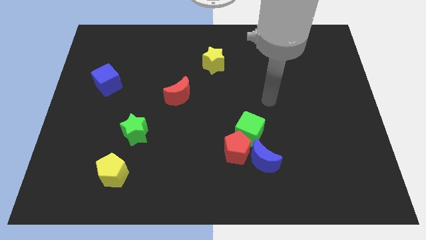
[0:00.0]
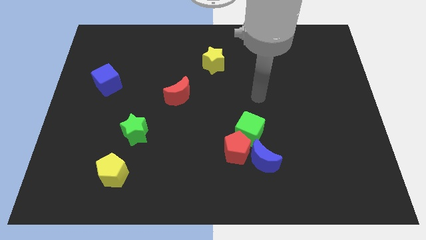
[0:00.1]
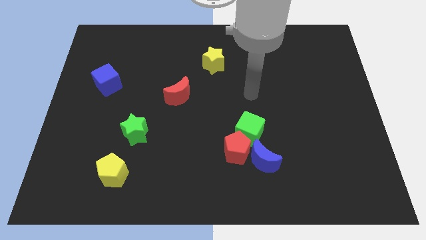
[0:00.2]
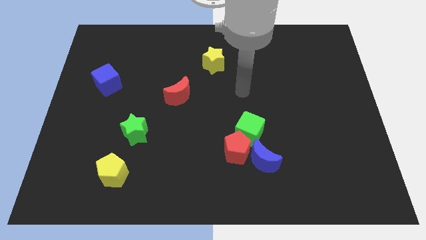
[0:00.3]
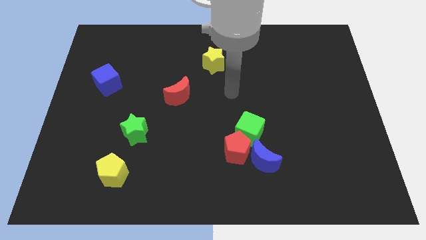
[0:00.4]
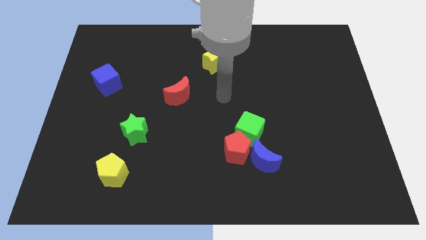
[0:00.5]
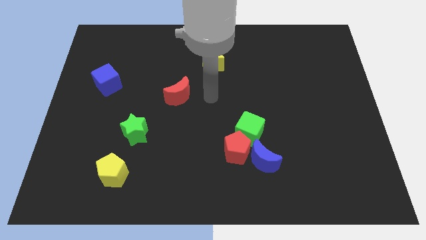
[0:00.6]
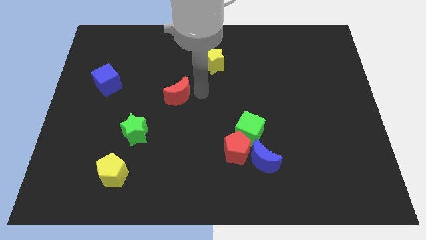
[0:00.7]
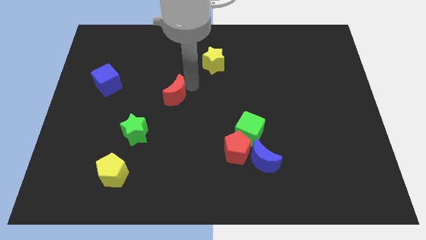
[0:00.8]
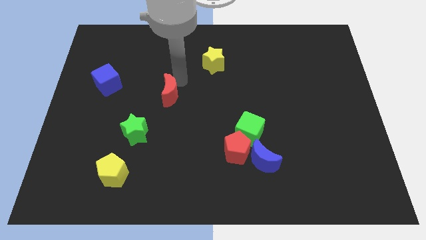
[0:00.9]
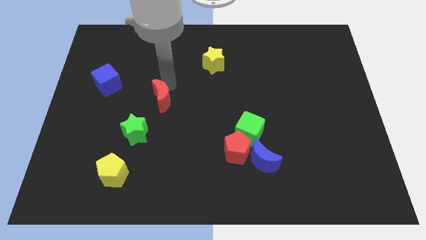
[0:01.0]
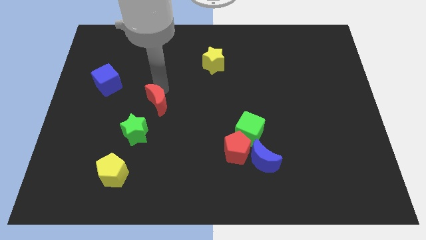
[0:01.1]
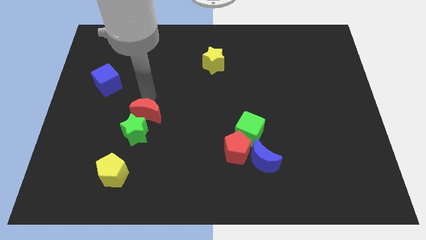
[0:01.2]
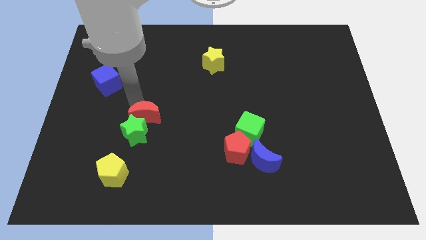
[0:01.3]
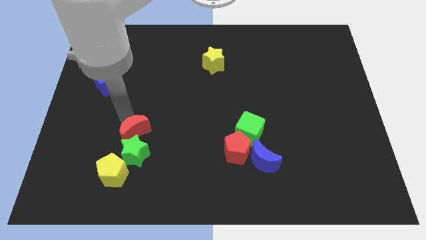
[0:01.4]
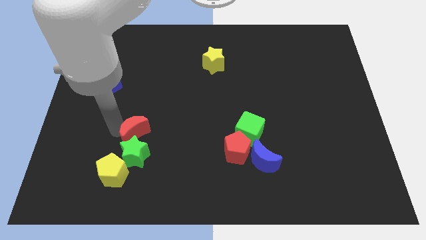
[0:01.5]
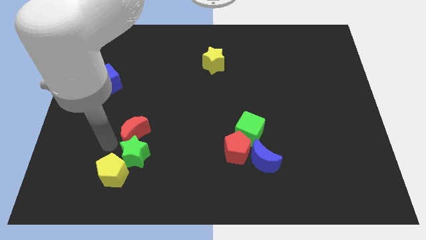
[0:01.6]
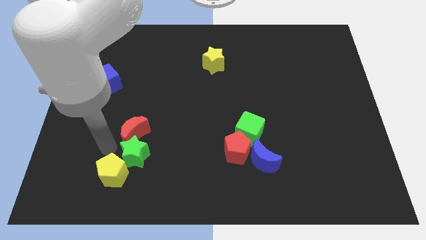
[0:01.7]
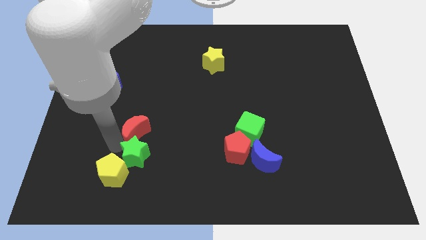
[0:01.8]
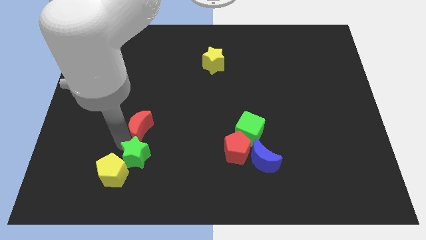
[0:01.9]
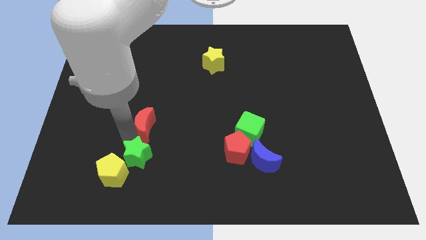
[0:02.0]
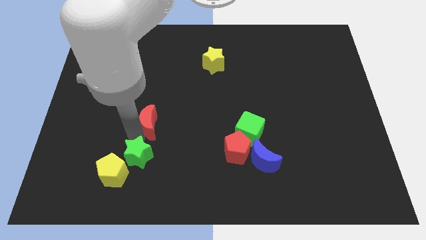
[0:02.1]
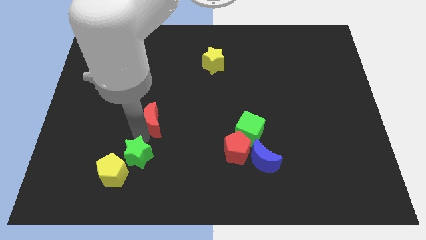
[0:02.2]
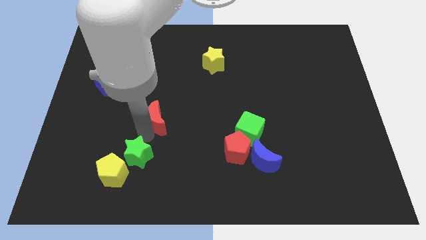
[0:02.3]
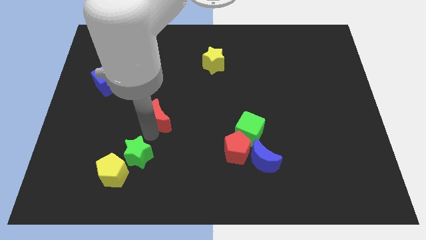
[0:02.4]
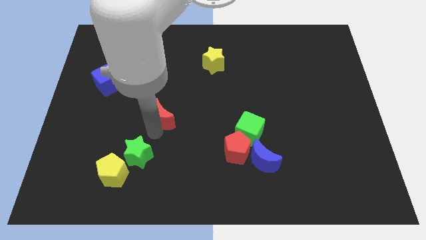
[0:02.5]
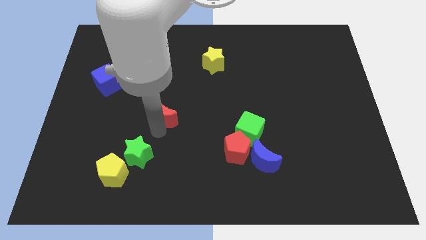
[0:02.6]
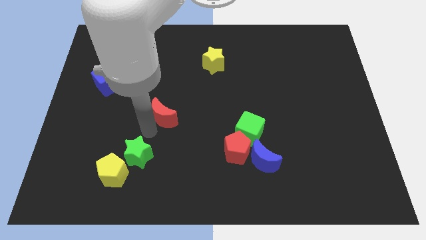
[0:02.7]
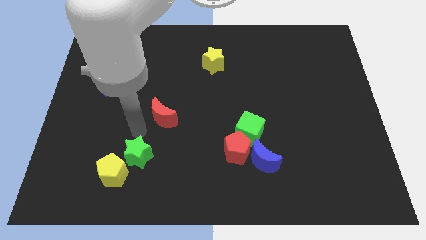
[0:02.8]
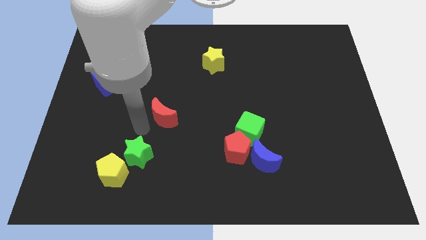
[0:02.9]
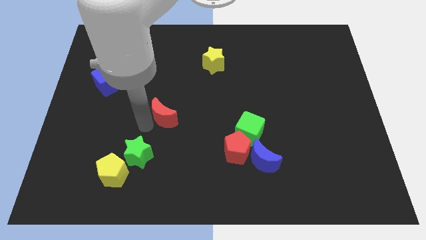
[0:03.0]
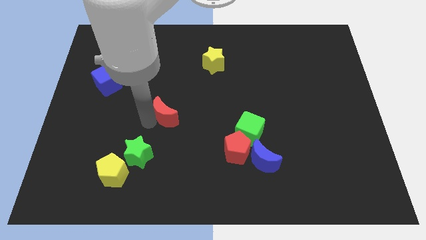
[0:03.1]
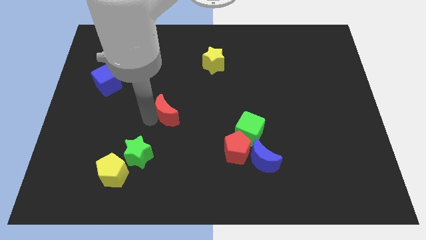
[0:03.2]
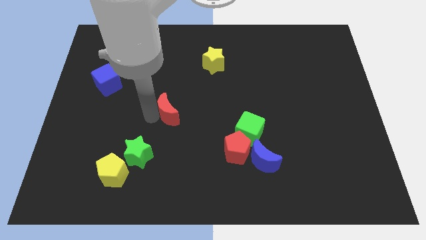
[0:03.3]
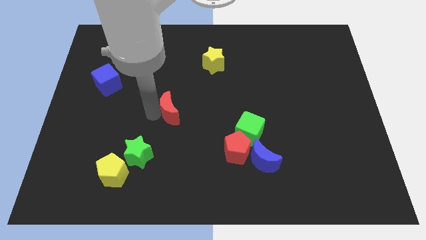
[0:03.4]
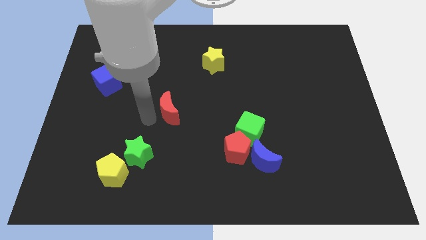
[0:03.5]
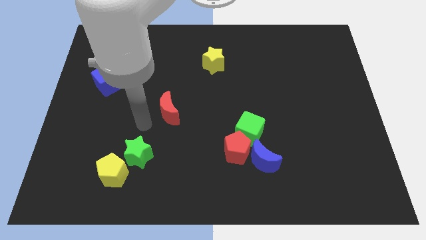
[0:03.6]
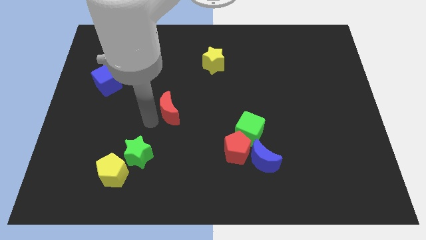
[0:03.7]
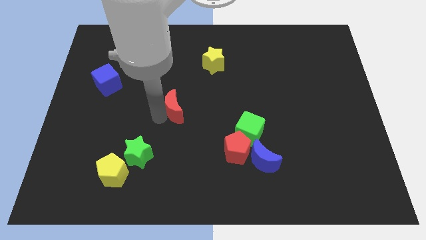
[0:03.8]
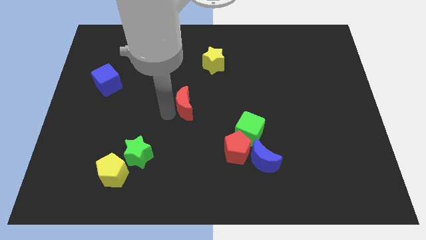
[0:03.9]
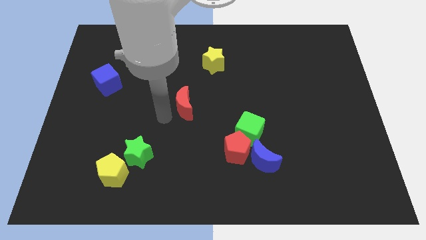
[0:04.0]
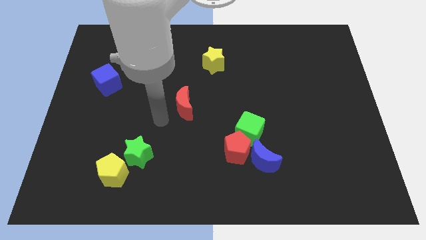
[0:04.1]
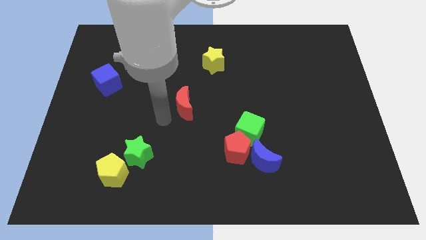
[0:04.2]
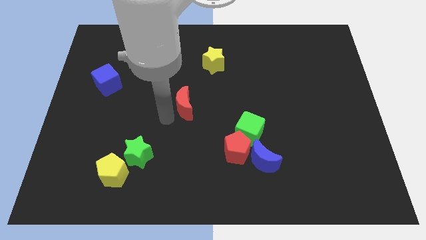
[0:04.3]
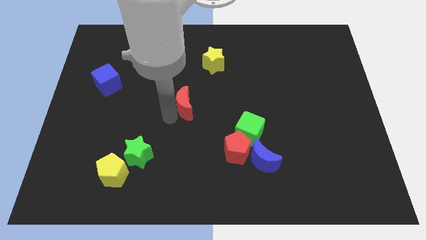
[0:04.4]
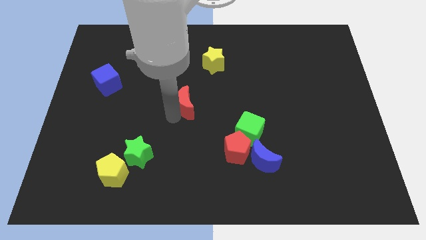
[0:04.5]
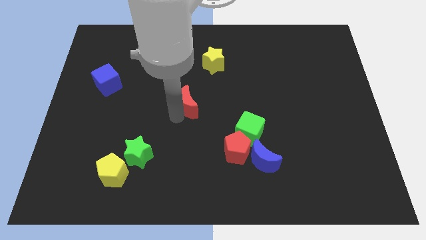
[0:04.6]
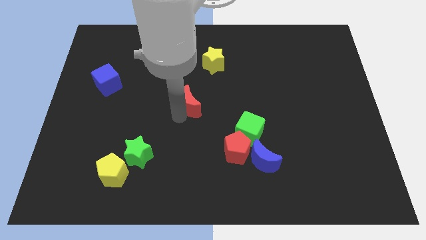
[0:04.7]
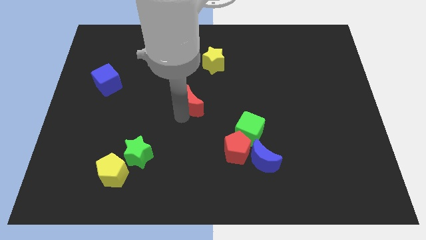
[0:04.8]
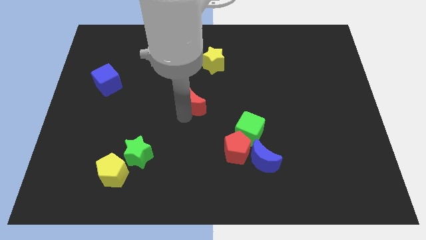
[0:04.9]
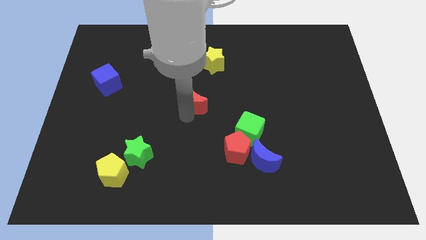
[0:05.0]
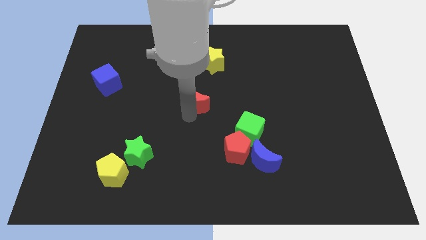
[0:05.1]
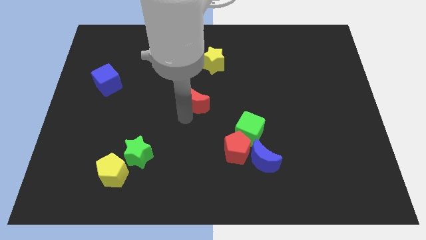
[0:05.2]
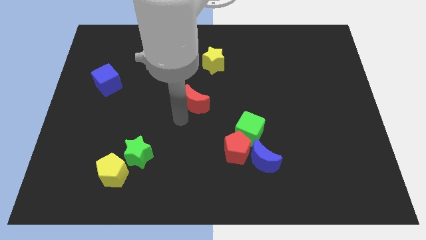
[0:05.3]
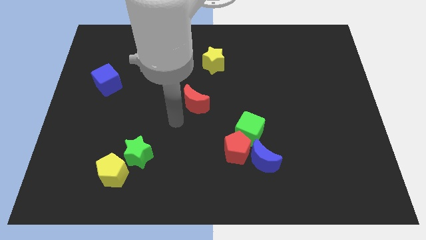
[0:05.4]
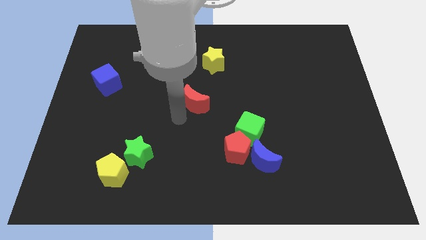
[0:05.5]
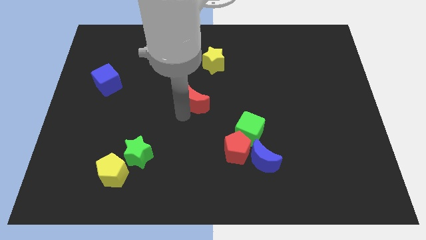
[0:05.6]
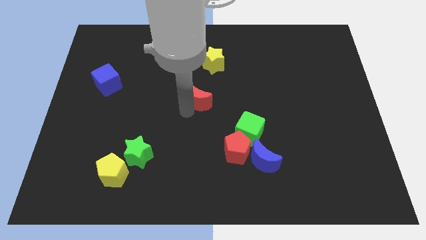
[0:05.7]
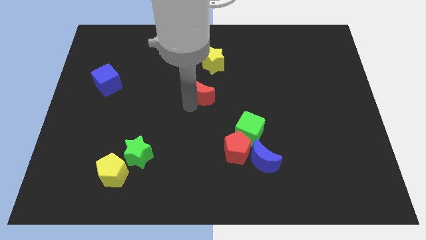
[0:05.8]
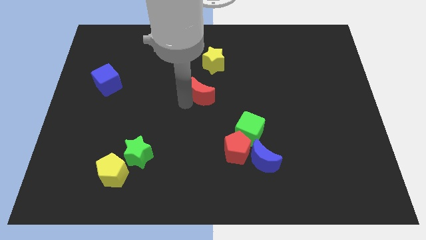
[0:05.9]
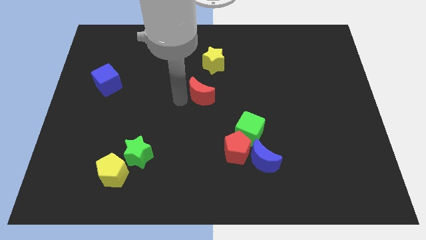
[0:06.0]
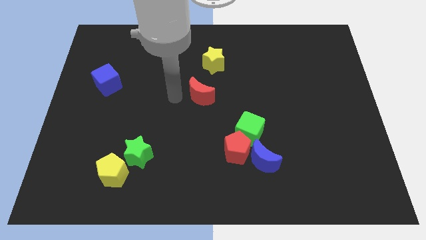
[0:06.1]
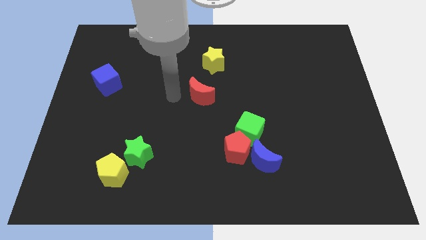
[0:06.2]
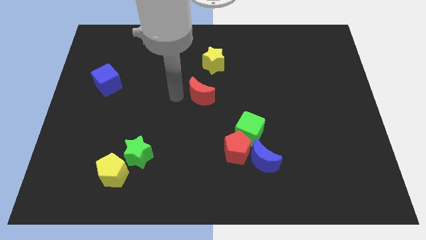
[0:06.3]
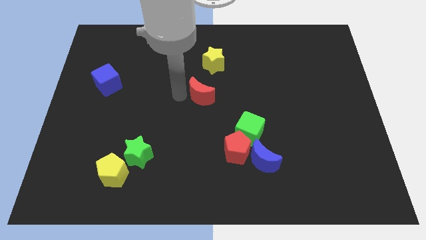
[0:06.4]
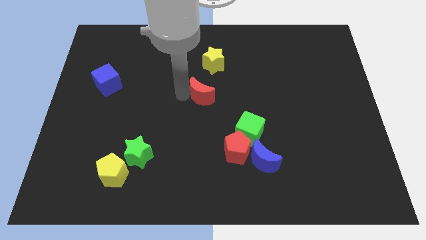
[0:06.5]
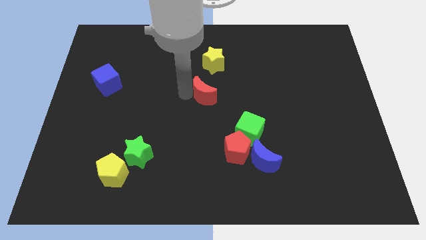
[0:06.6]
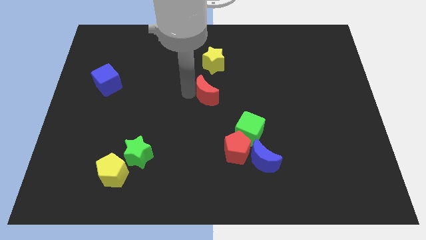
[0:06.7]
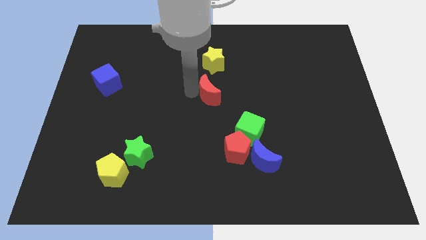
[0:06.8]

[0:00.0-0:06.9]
slightly slide the red moon right

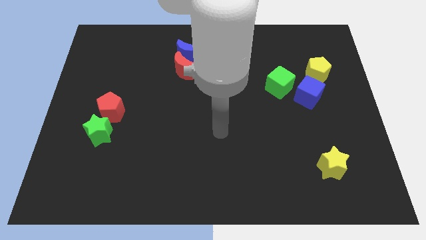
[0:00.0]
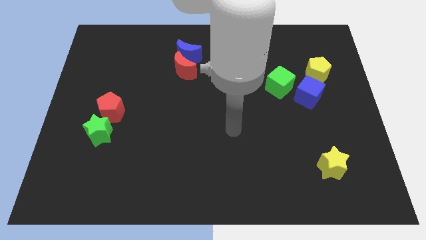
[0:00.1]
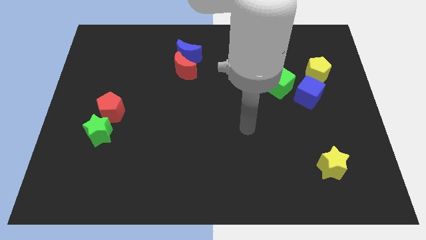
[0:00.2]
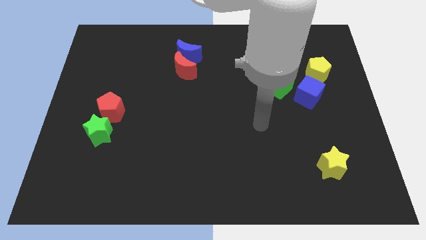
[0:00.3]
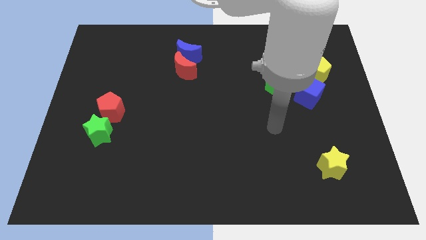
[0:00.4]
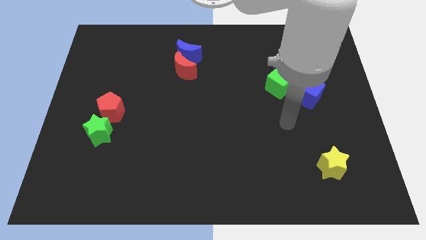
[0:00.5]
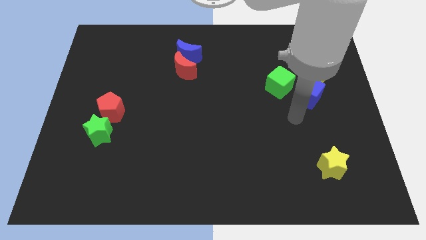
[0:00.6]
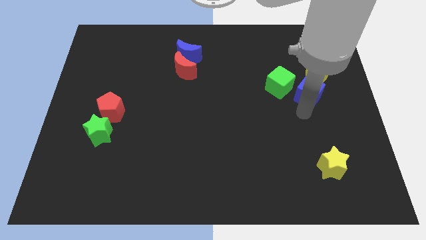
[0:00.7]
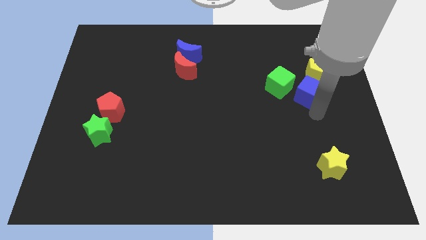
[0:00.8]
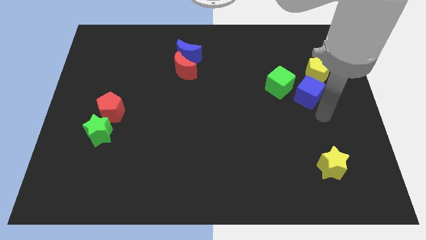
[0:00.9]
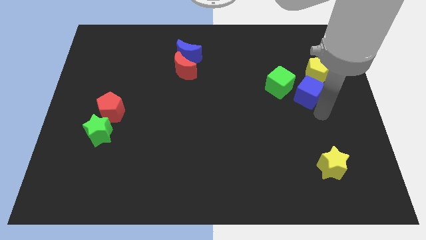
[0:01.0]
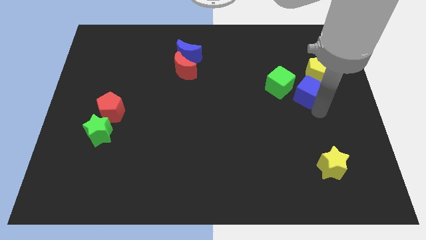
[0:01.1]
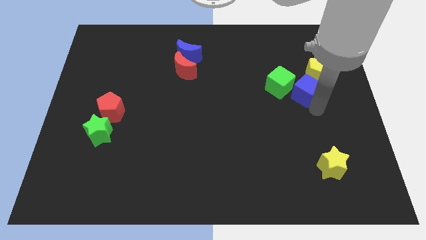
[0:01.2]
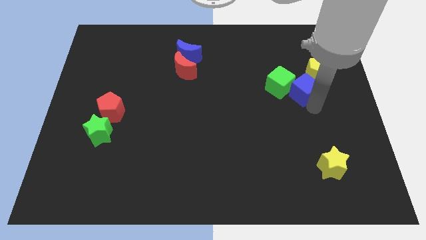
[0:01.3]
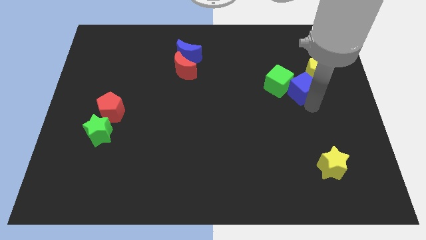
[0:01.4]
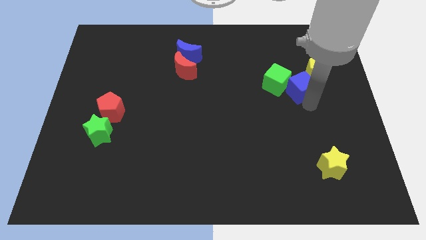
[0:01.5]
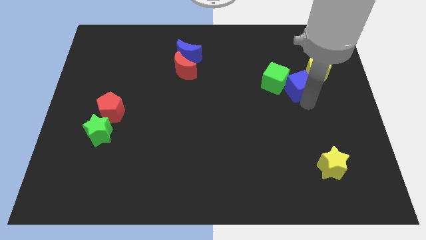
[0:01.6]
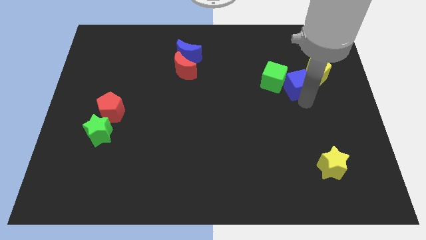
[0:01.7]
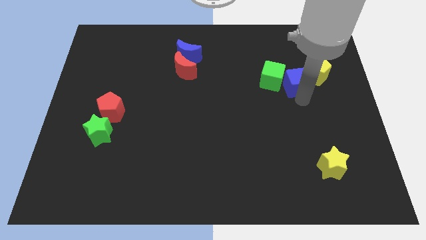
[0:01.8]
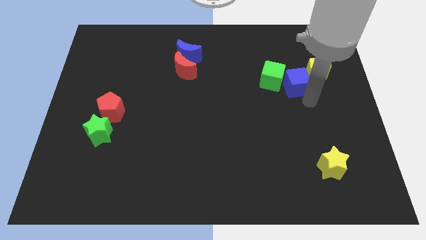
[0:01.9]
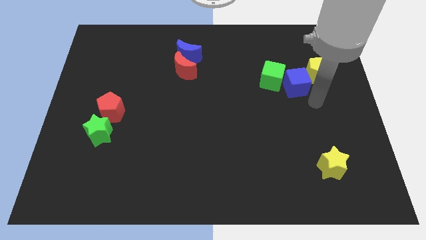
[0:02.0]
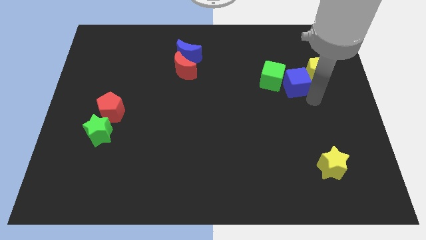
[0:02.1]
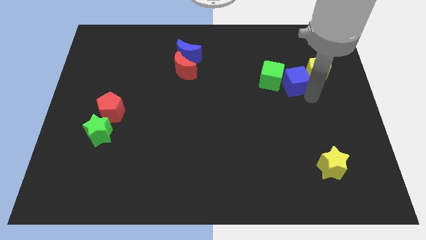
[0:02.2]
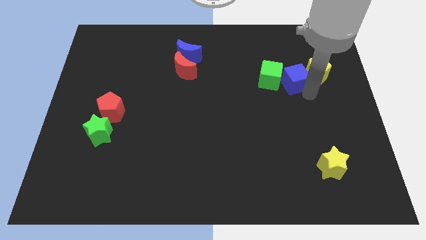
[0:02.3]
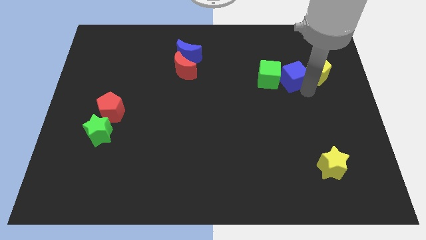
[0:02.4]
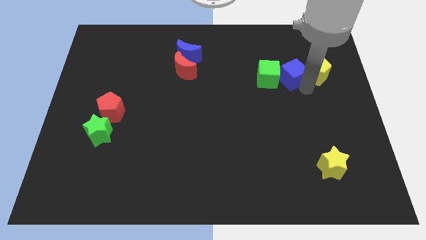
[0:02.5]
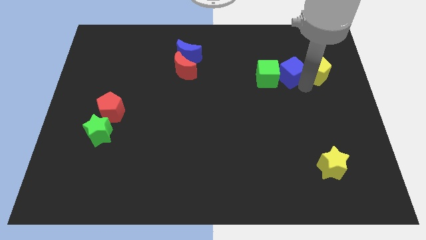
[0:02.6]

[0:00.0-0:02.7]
move the blue cube a little up and then left
